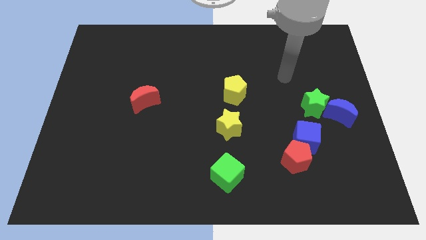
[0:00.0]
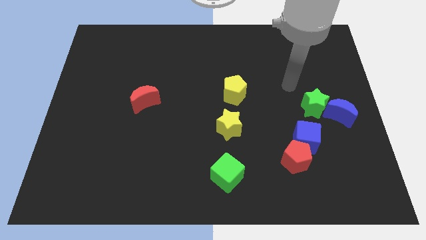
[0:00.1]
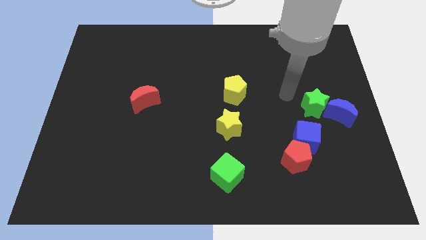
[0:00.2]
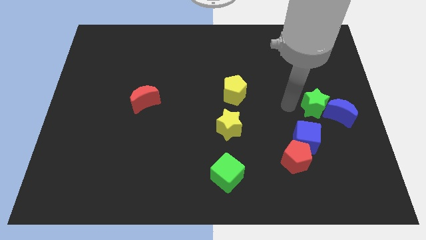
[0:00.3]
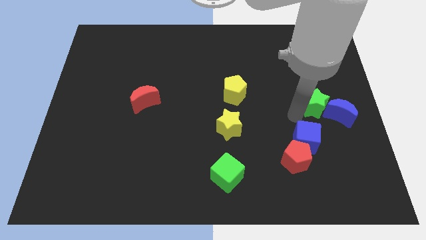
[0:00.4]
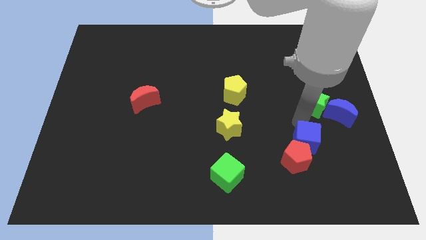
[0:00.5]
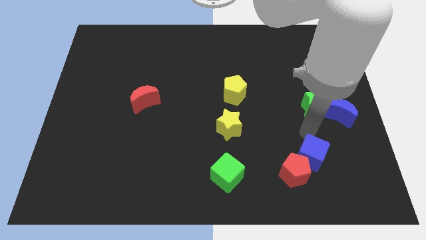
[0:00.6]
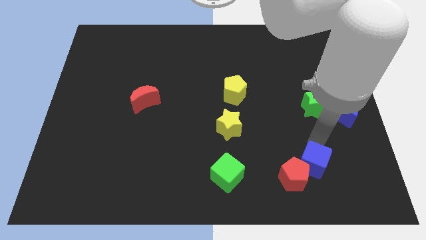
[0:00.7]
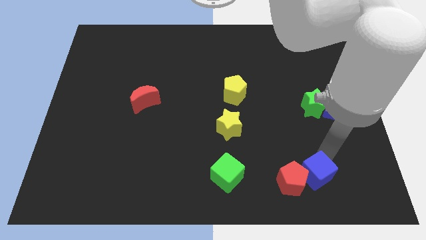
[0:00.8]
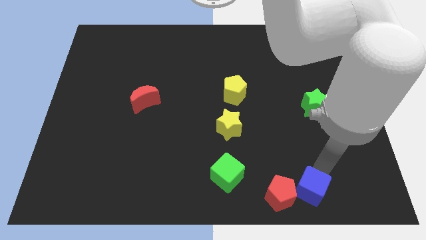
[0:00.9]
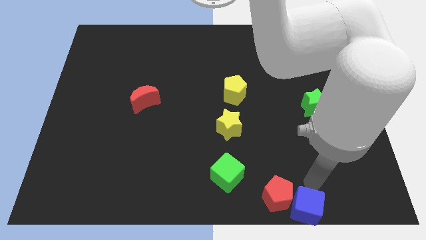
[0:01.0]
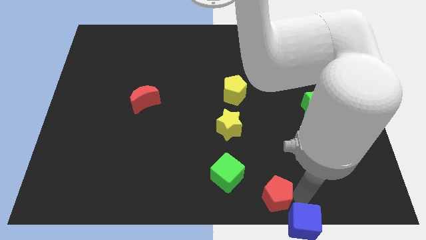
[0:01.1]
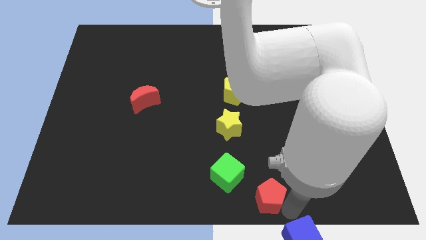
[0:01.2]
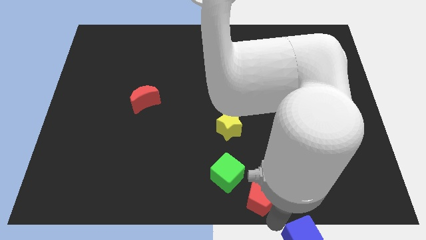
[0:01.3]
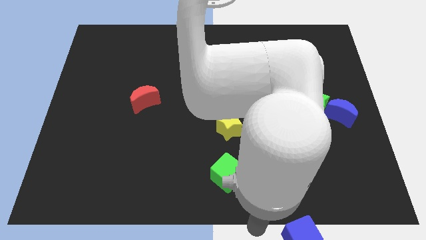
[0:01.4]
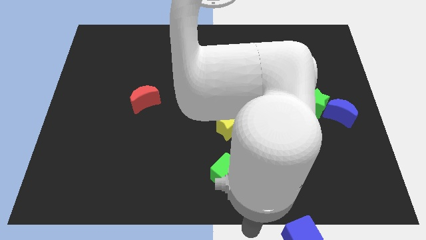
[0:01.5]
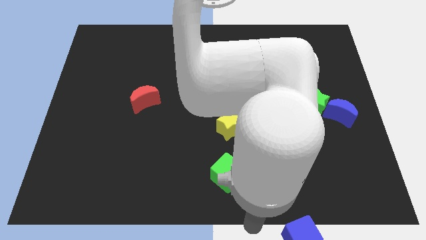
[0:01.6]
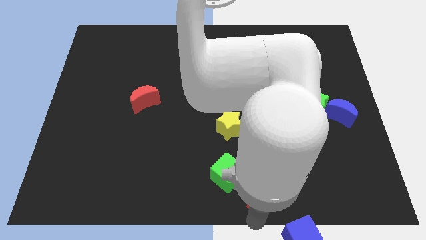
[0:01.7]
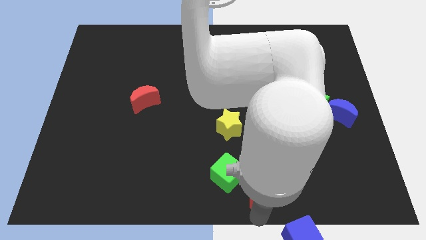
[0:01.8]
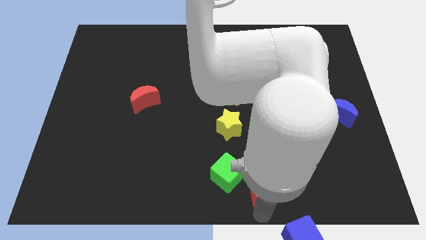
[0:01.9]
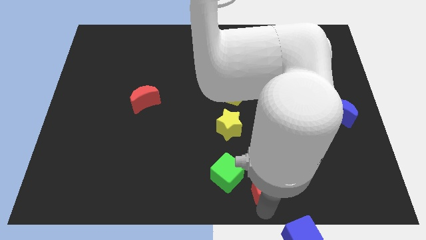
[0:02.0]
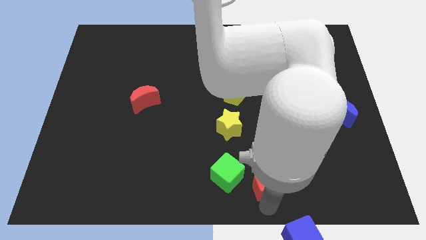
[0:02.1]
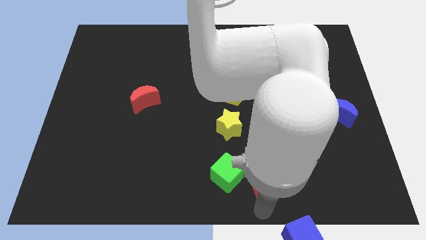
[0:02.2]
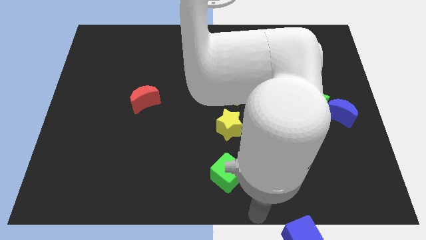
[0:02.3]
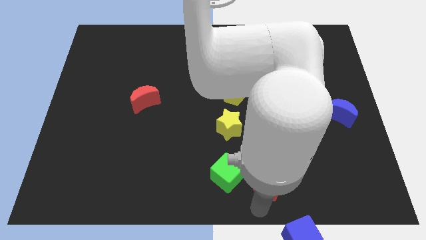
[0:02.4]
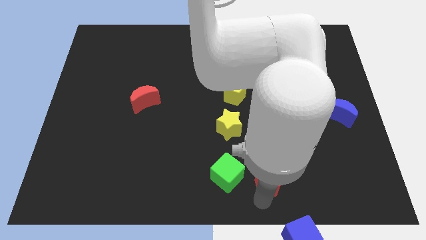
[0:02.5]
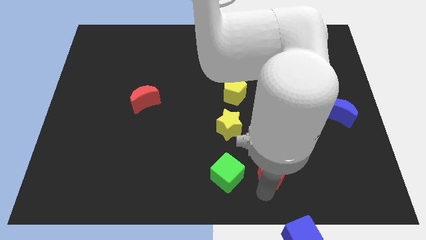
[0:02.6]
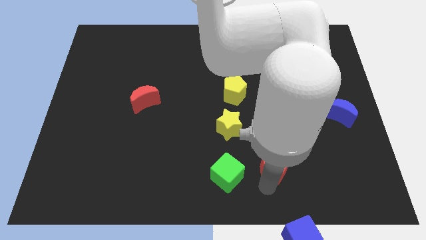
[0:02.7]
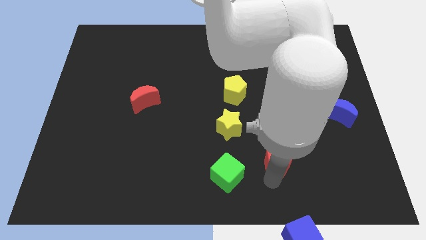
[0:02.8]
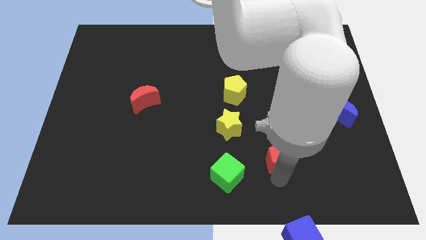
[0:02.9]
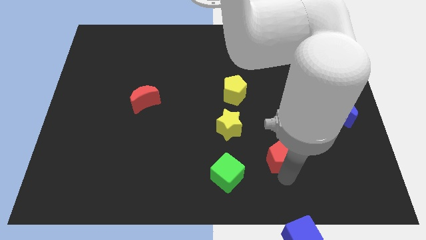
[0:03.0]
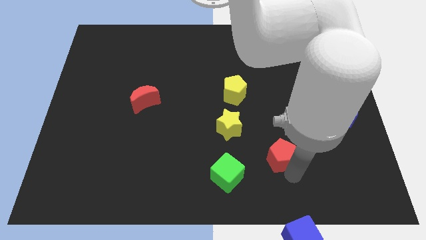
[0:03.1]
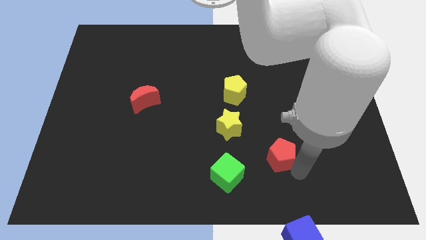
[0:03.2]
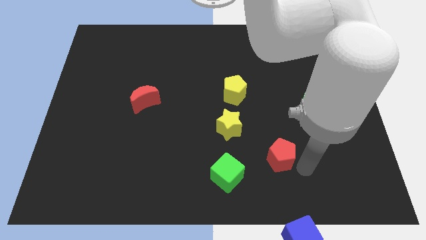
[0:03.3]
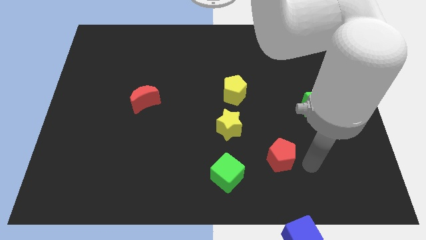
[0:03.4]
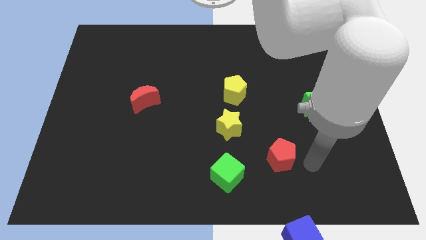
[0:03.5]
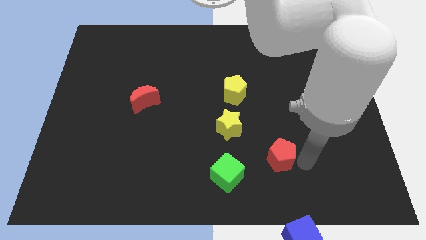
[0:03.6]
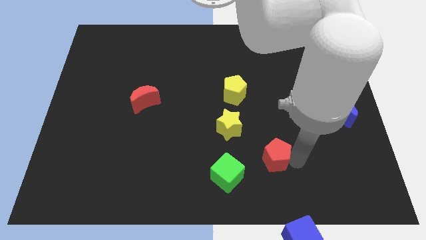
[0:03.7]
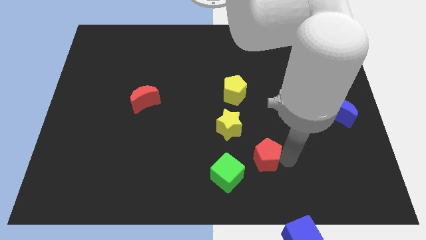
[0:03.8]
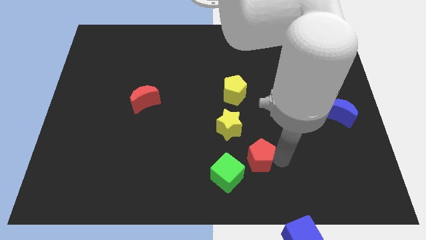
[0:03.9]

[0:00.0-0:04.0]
push the red pentagon a little left

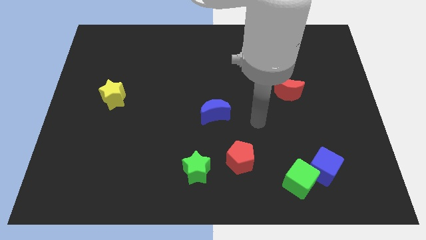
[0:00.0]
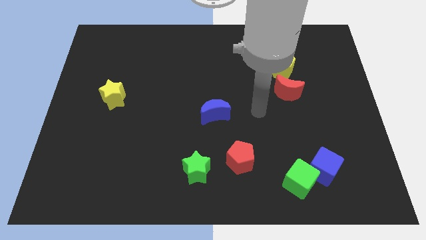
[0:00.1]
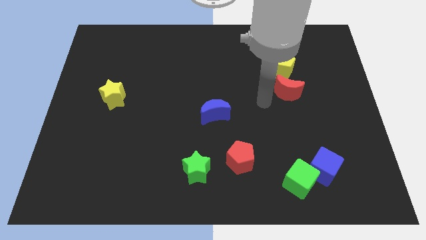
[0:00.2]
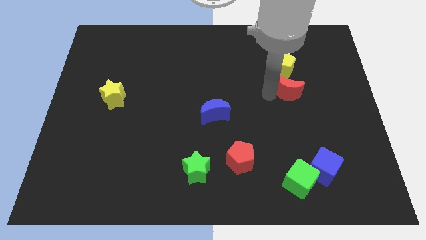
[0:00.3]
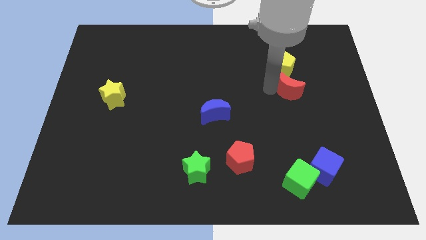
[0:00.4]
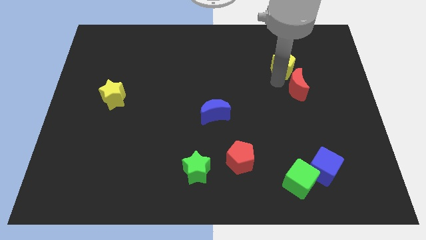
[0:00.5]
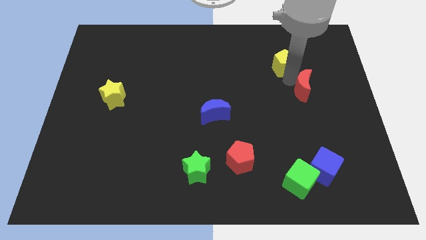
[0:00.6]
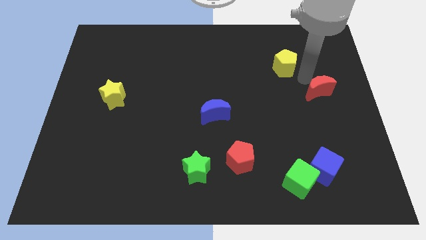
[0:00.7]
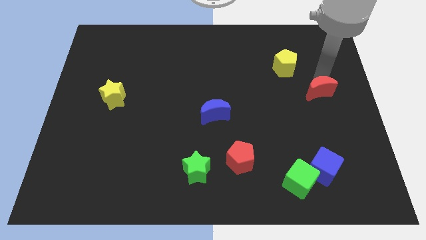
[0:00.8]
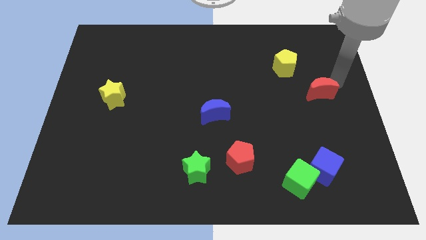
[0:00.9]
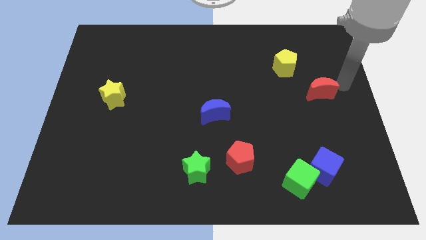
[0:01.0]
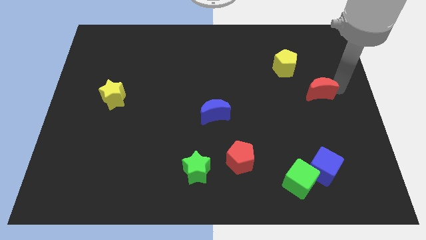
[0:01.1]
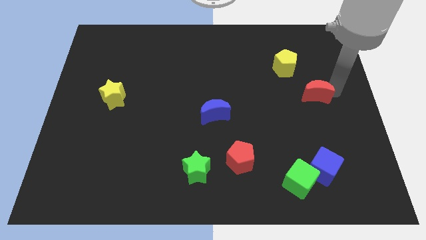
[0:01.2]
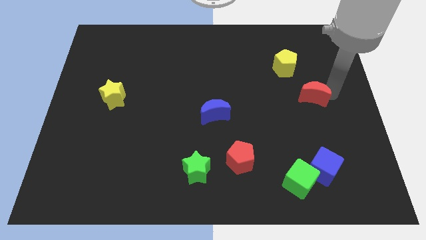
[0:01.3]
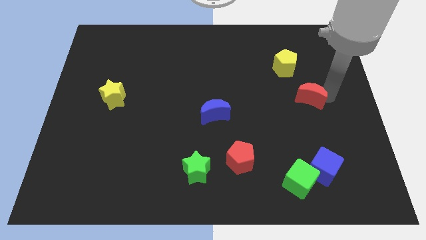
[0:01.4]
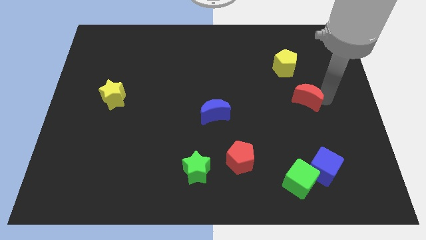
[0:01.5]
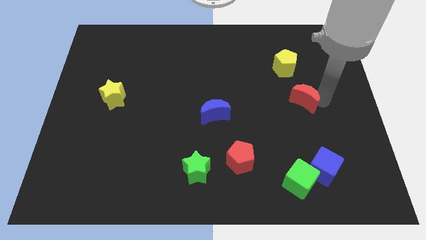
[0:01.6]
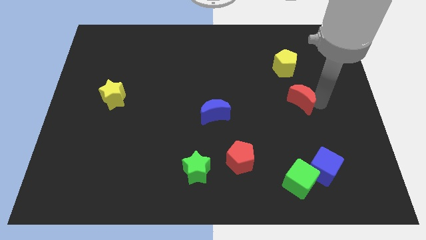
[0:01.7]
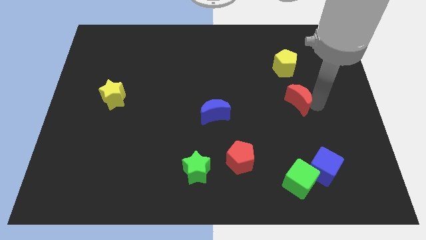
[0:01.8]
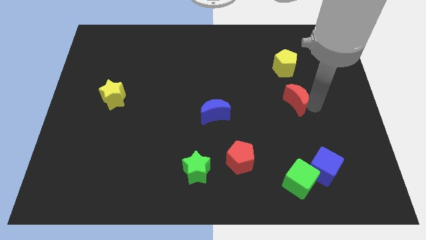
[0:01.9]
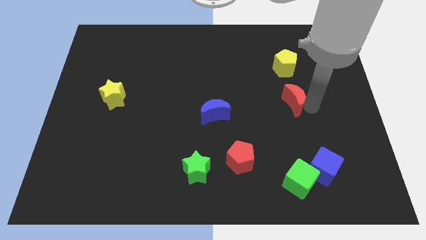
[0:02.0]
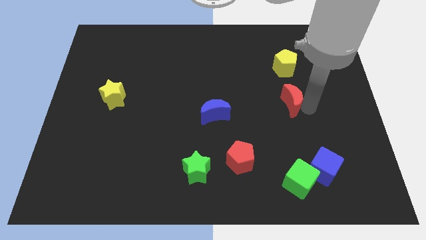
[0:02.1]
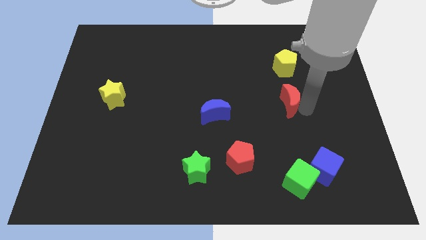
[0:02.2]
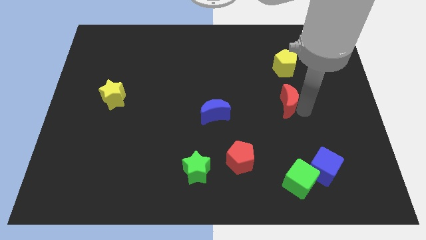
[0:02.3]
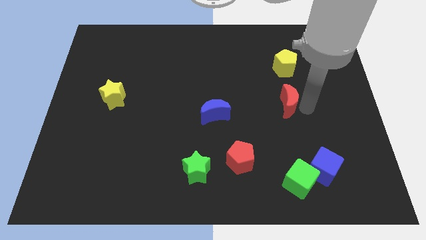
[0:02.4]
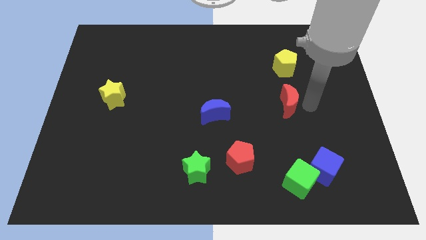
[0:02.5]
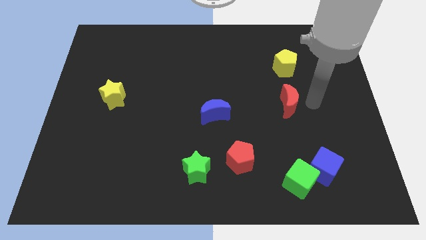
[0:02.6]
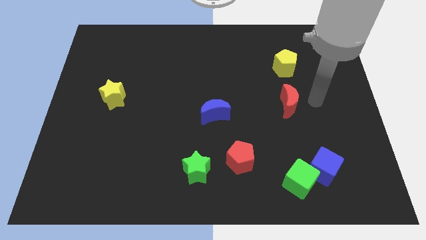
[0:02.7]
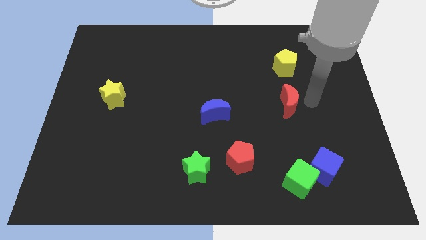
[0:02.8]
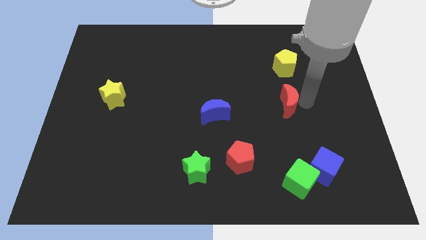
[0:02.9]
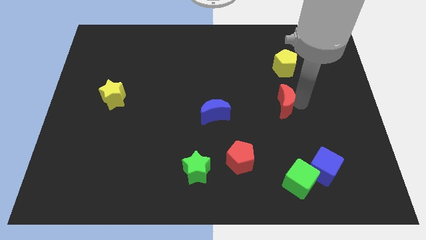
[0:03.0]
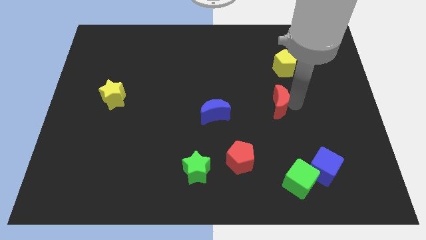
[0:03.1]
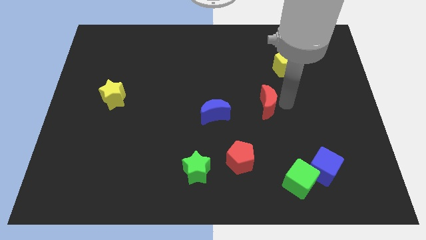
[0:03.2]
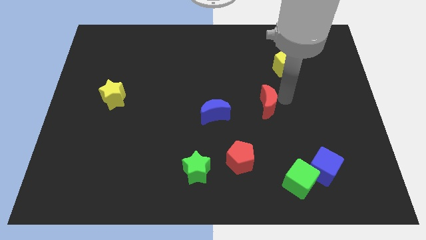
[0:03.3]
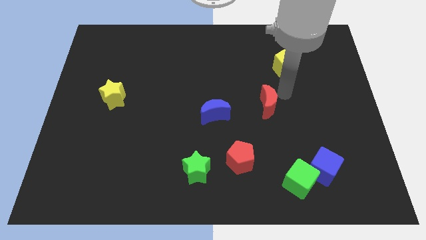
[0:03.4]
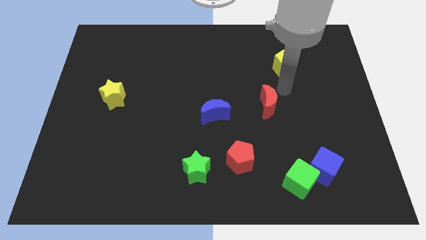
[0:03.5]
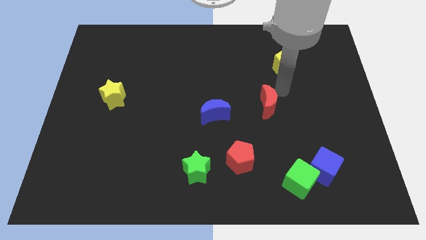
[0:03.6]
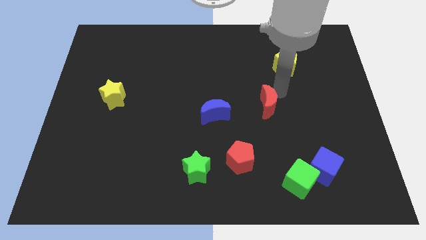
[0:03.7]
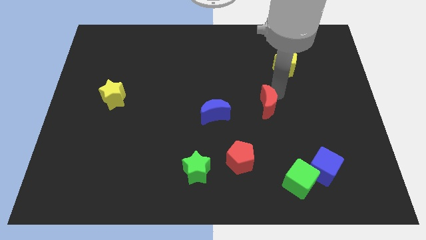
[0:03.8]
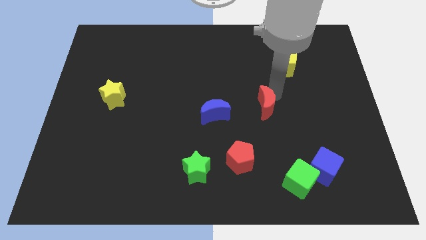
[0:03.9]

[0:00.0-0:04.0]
push the red moon diagonally down and to the left a little bit
